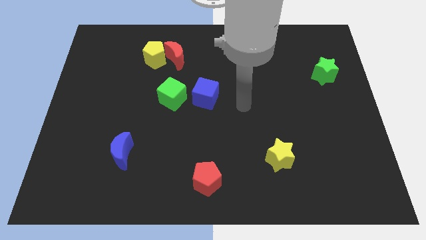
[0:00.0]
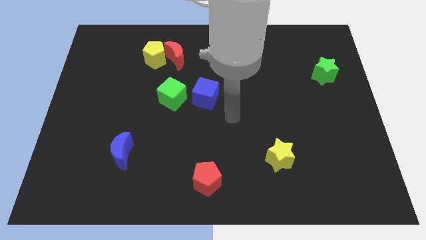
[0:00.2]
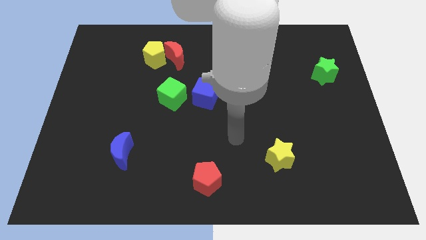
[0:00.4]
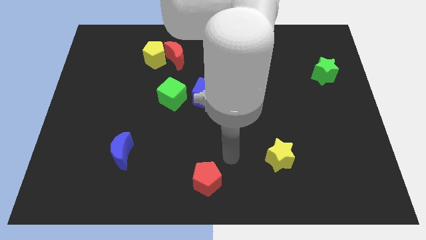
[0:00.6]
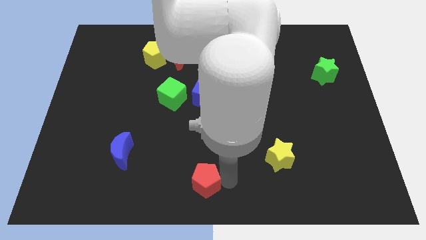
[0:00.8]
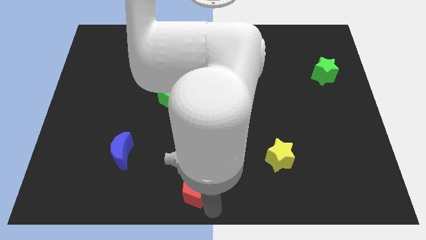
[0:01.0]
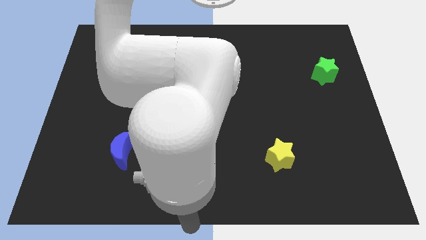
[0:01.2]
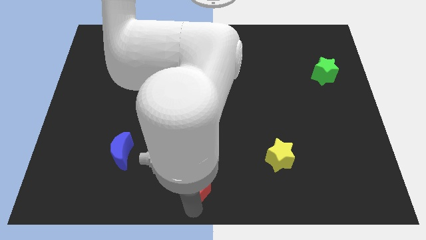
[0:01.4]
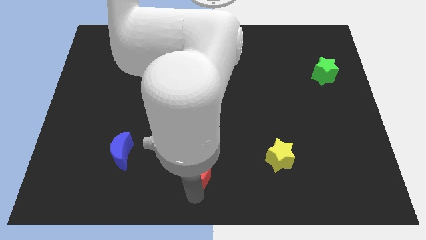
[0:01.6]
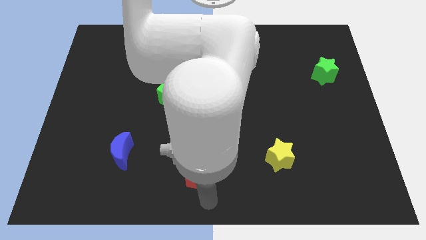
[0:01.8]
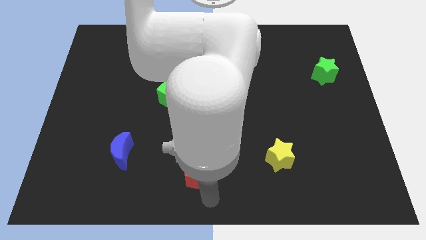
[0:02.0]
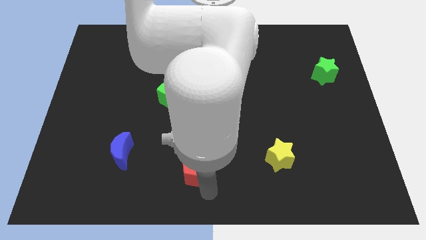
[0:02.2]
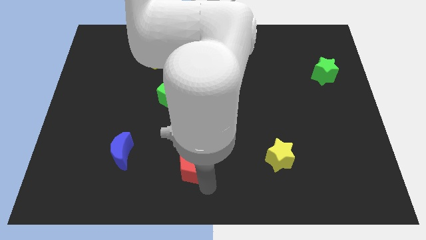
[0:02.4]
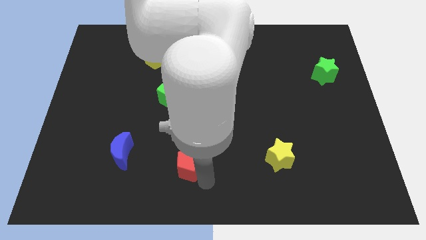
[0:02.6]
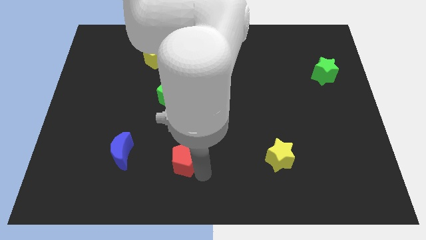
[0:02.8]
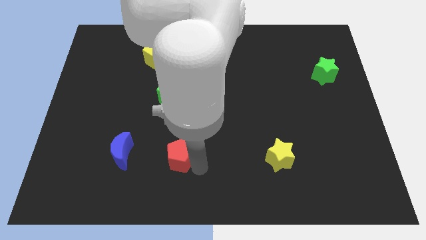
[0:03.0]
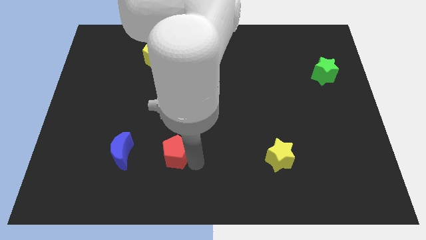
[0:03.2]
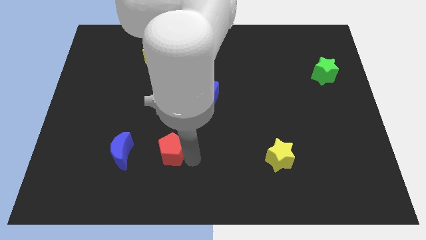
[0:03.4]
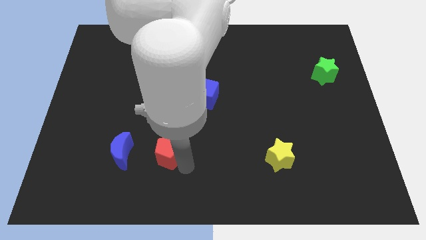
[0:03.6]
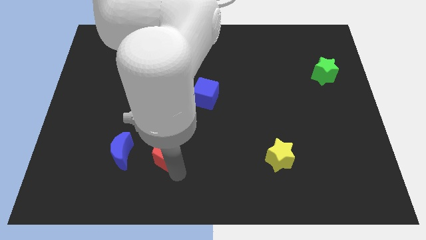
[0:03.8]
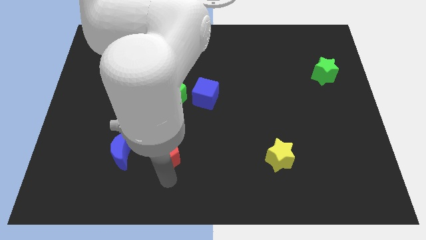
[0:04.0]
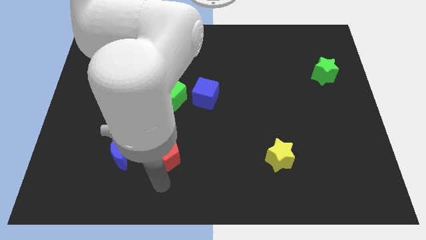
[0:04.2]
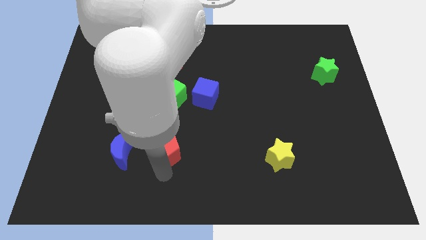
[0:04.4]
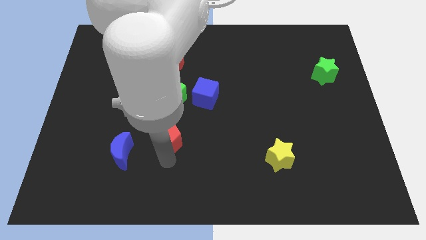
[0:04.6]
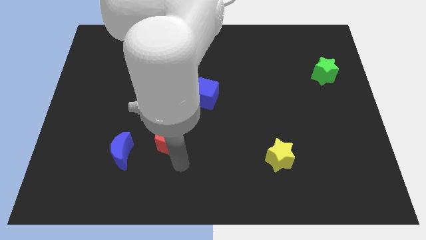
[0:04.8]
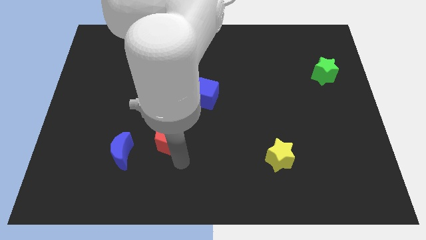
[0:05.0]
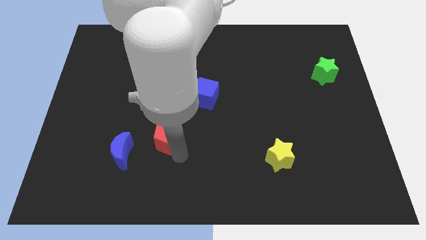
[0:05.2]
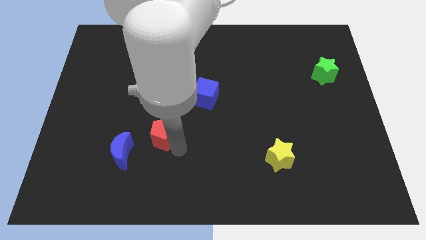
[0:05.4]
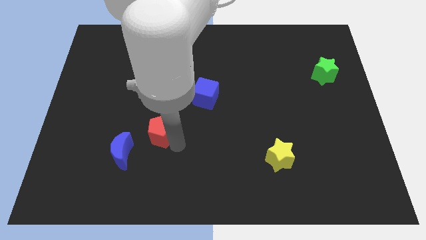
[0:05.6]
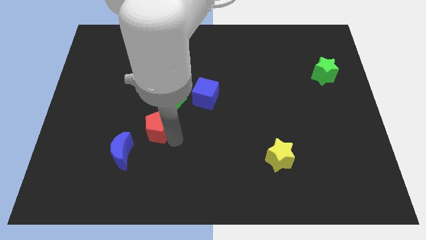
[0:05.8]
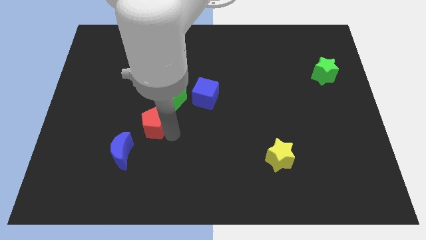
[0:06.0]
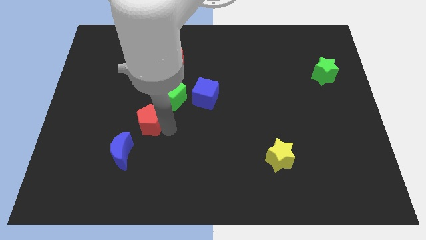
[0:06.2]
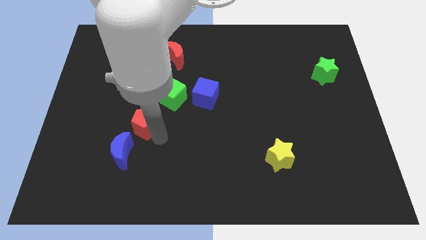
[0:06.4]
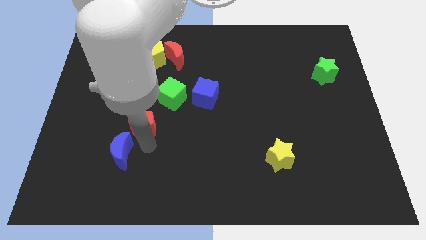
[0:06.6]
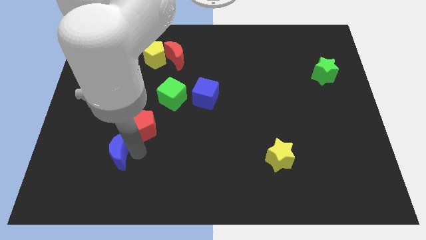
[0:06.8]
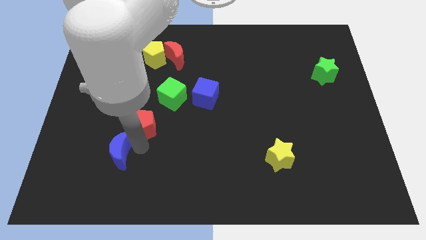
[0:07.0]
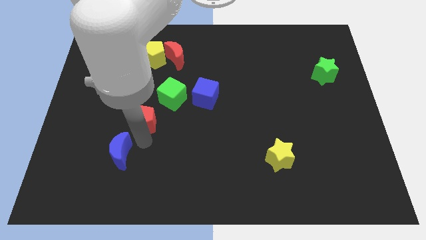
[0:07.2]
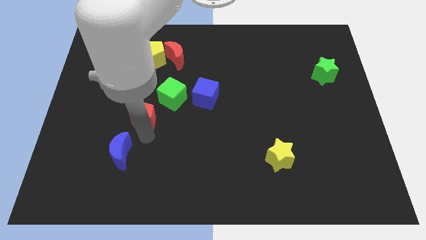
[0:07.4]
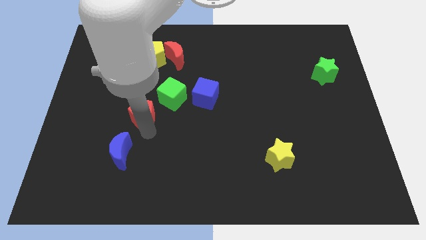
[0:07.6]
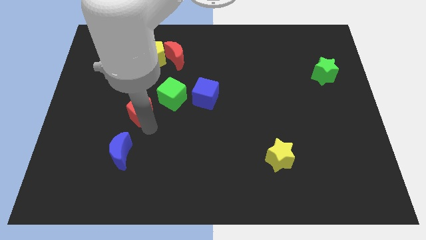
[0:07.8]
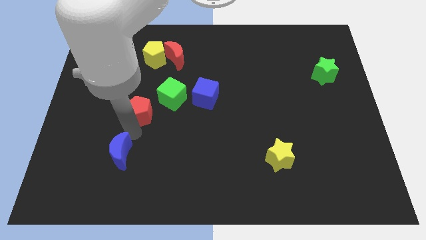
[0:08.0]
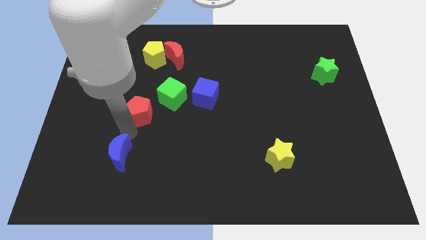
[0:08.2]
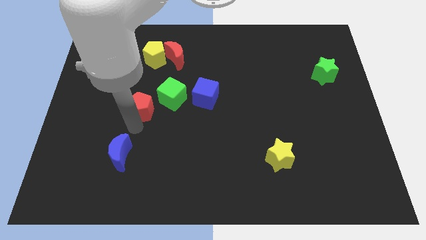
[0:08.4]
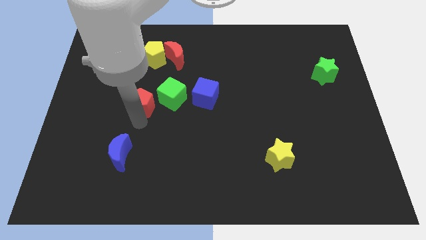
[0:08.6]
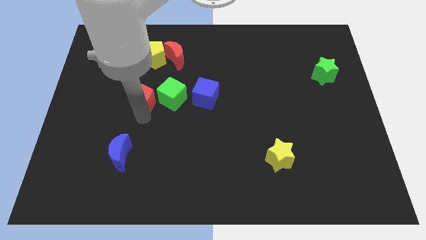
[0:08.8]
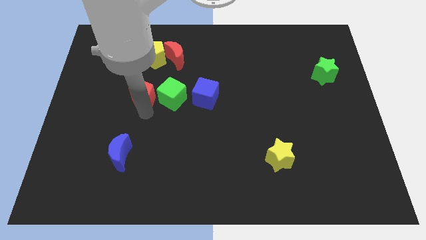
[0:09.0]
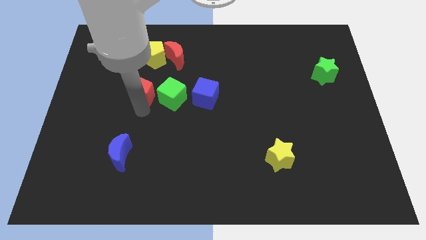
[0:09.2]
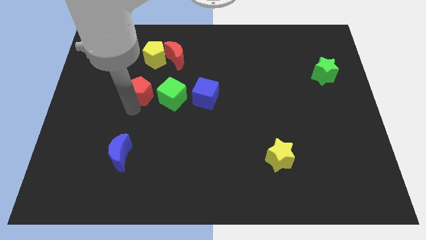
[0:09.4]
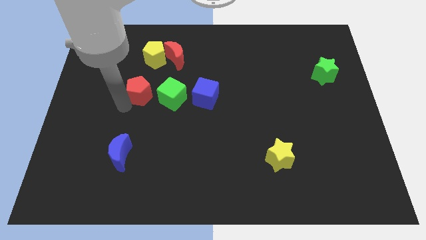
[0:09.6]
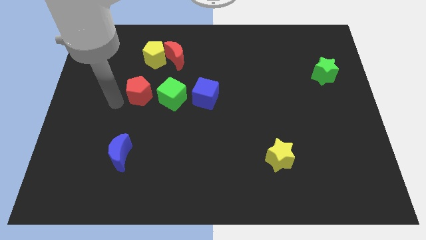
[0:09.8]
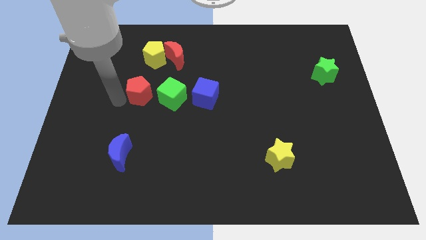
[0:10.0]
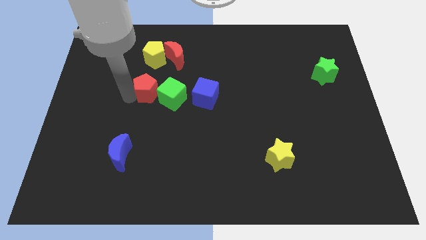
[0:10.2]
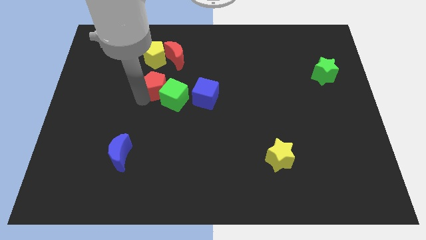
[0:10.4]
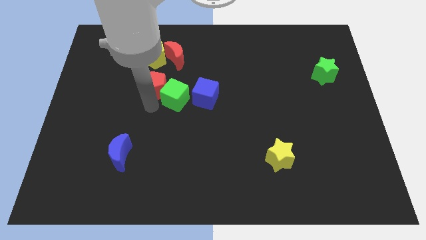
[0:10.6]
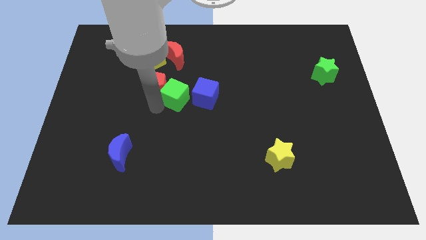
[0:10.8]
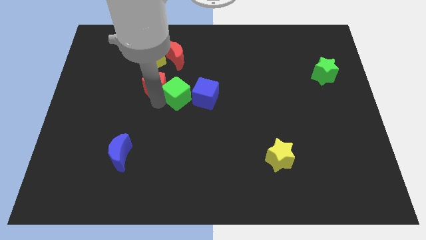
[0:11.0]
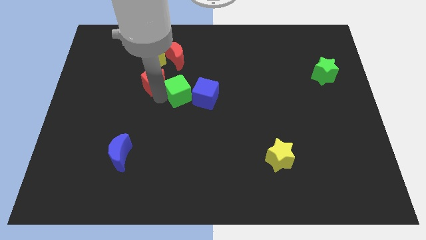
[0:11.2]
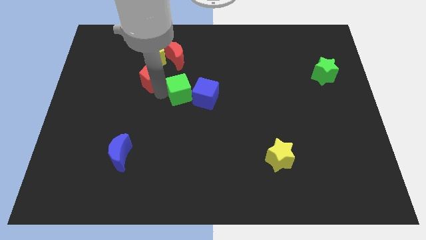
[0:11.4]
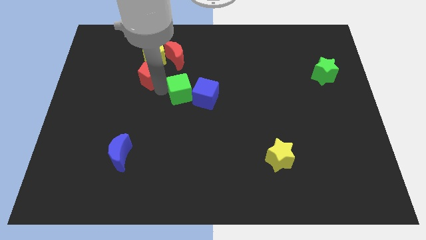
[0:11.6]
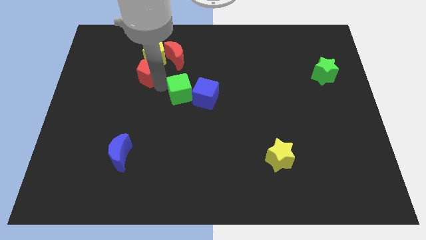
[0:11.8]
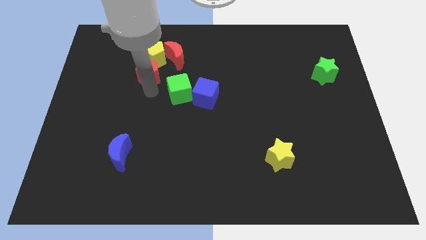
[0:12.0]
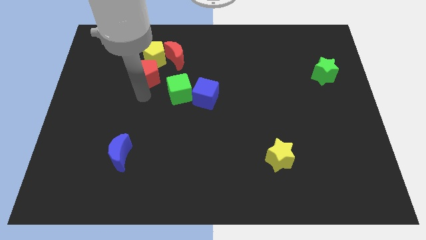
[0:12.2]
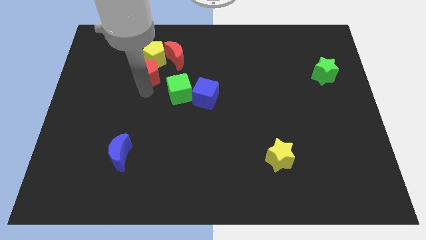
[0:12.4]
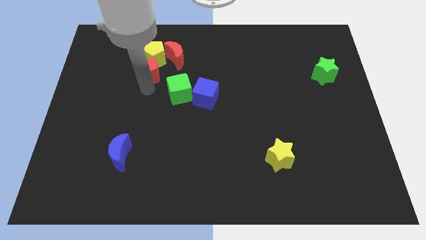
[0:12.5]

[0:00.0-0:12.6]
push the red pentagon next to the yellow pentagon

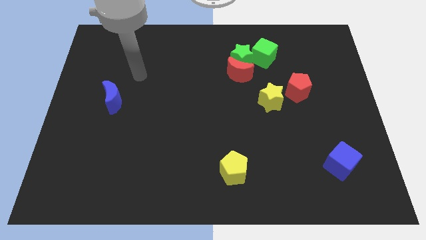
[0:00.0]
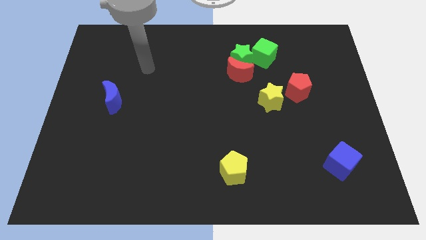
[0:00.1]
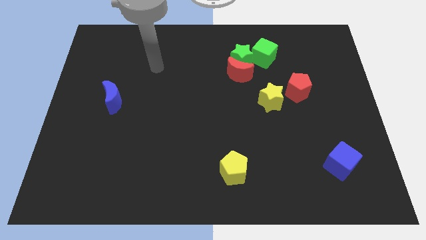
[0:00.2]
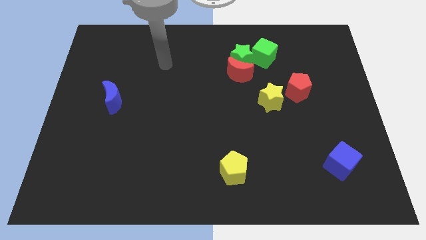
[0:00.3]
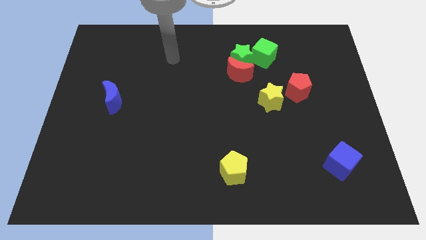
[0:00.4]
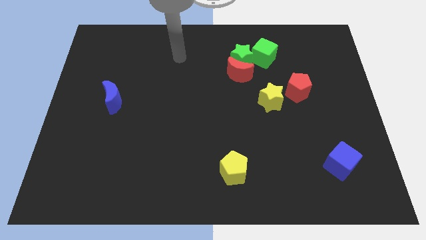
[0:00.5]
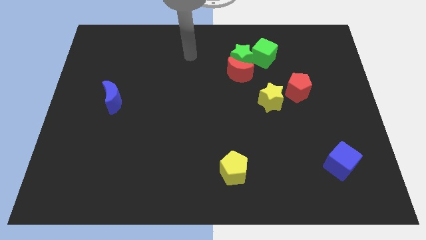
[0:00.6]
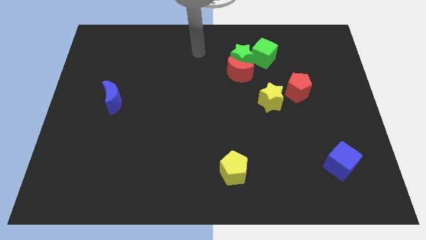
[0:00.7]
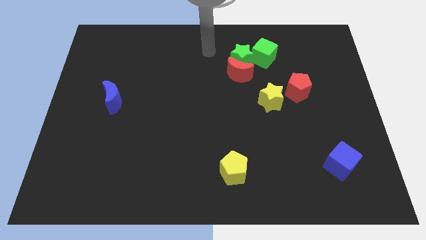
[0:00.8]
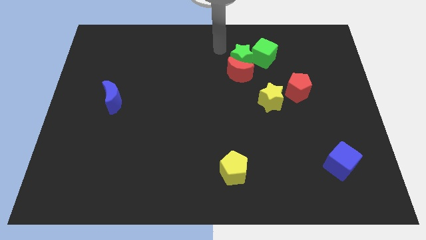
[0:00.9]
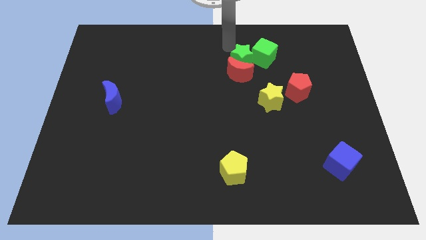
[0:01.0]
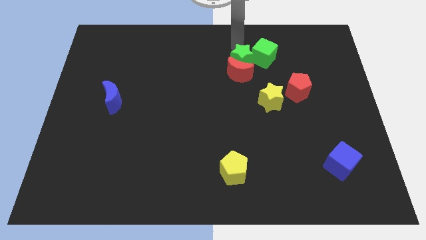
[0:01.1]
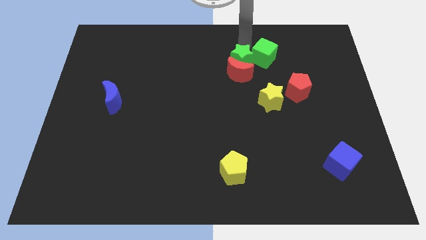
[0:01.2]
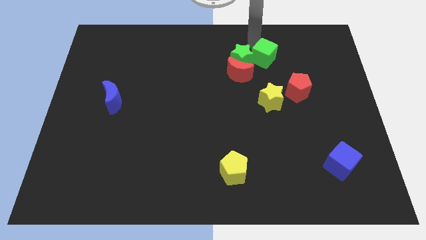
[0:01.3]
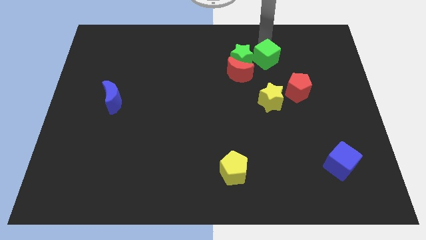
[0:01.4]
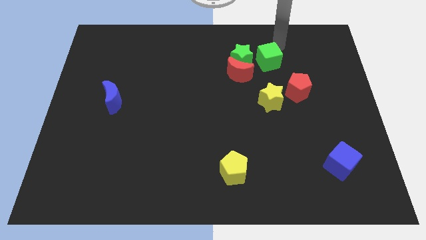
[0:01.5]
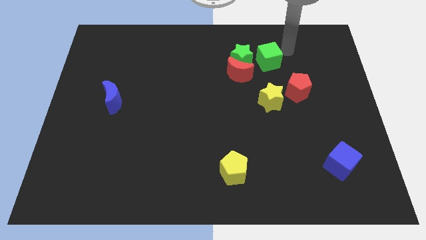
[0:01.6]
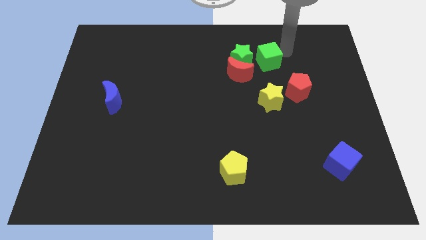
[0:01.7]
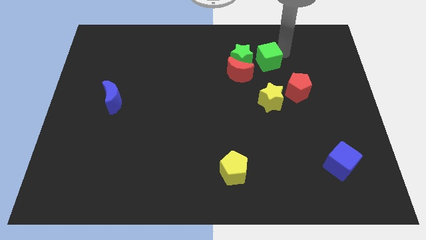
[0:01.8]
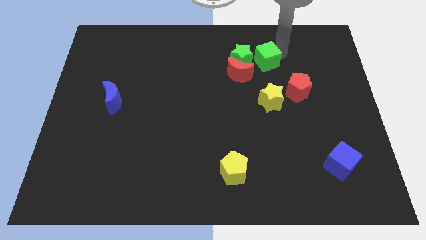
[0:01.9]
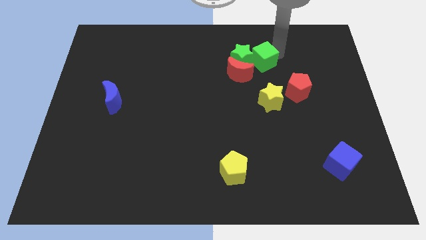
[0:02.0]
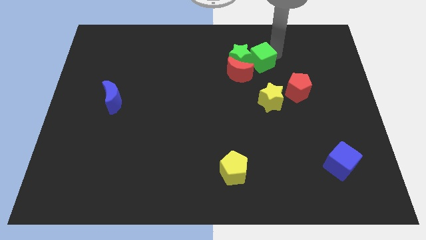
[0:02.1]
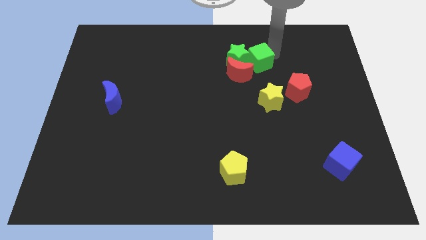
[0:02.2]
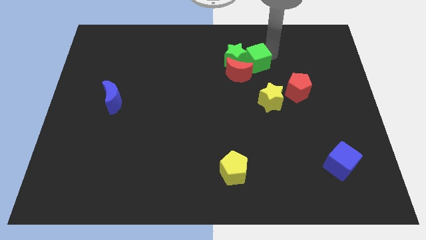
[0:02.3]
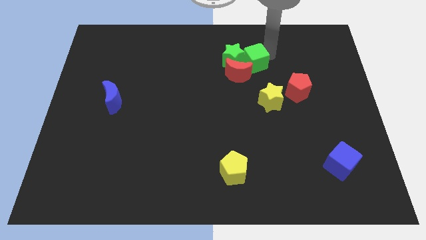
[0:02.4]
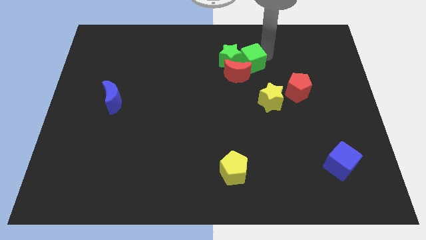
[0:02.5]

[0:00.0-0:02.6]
slide the green cube to the red moon
